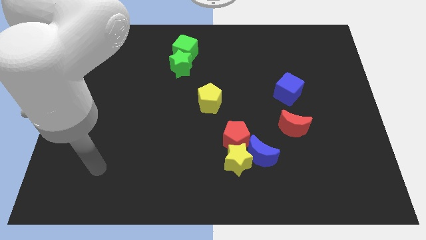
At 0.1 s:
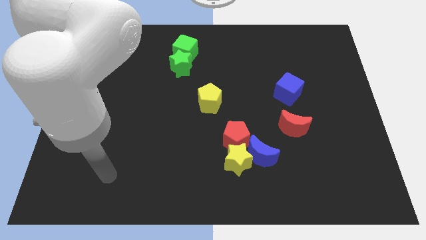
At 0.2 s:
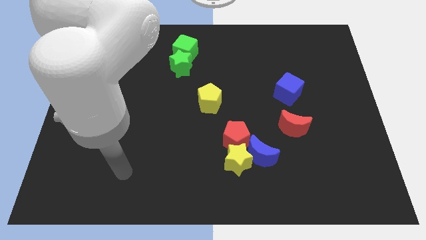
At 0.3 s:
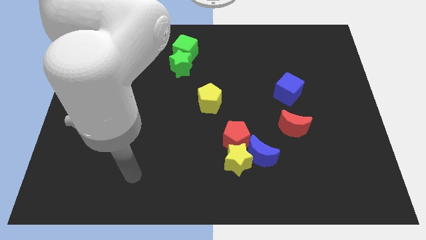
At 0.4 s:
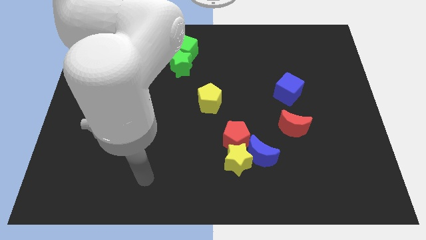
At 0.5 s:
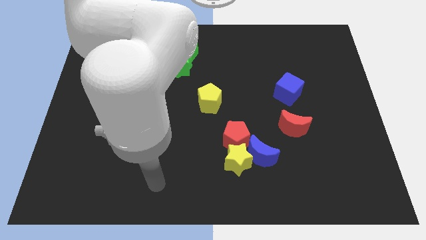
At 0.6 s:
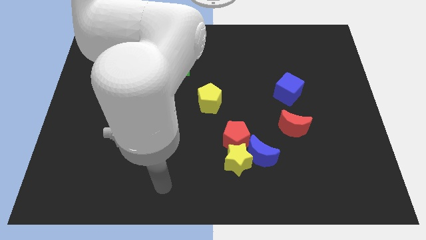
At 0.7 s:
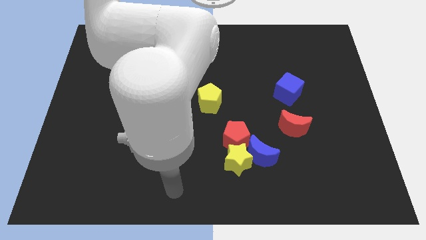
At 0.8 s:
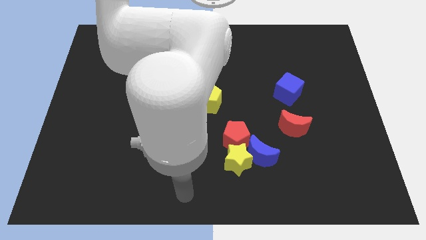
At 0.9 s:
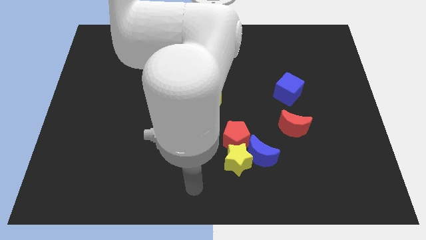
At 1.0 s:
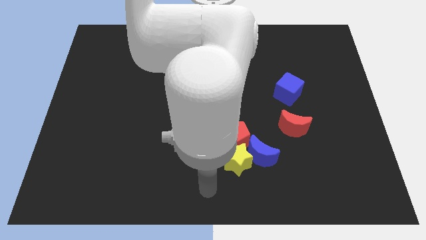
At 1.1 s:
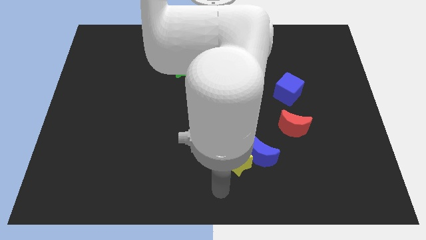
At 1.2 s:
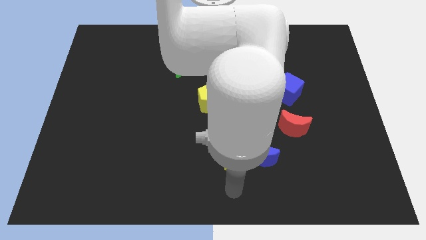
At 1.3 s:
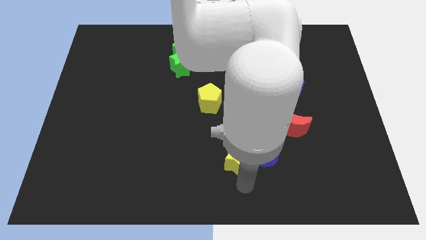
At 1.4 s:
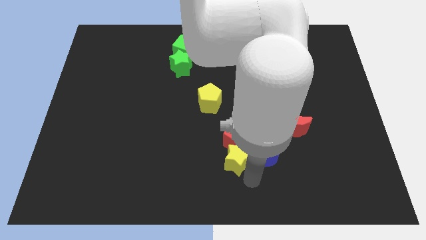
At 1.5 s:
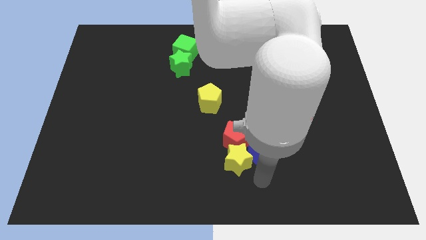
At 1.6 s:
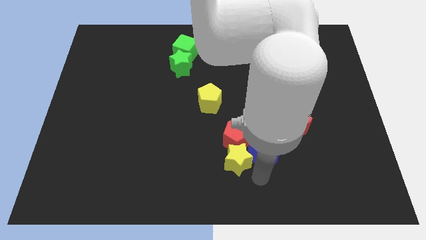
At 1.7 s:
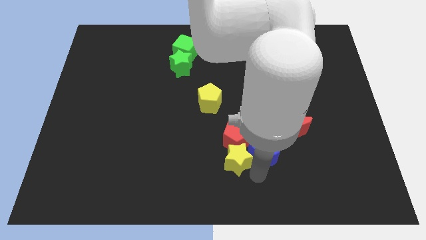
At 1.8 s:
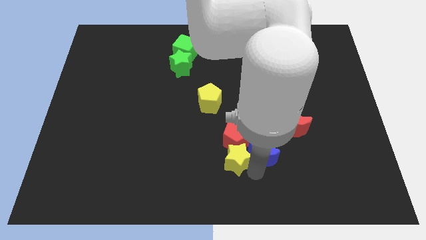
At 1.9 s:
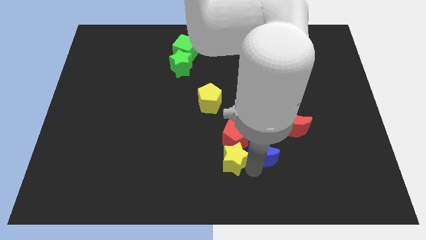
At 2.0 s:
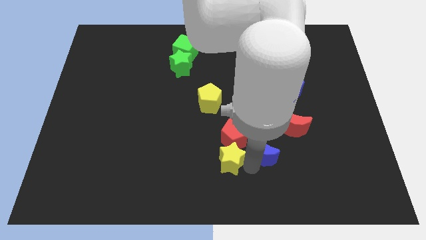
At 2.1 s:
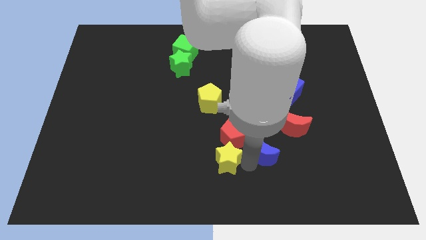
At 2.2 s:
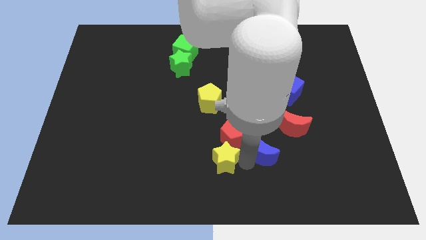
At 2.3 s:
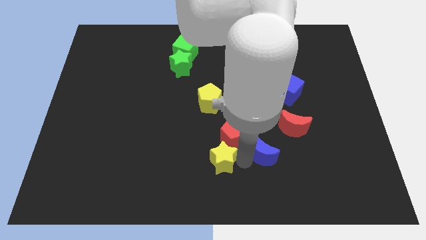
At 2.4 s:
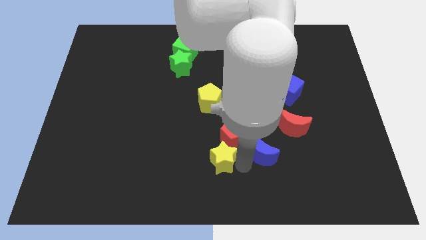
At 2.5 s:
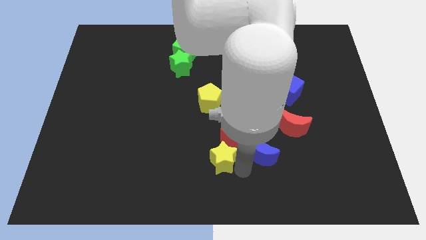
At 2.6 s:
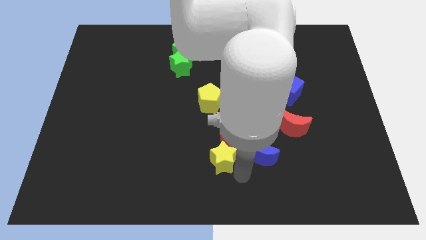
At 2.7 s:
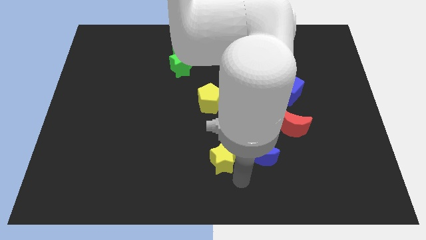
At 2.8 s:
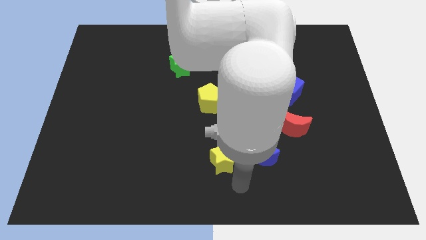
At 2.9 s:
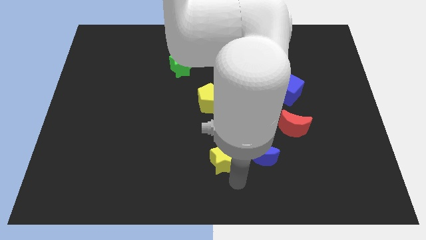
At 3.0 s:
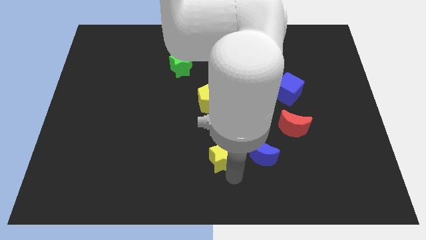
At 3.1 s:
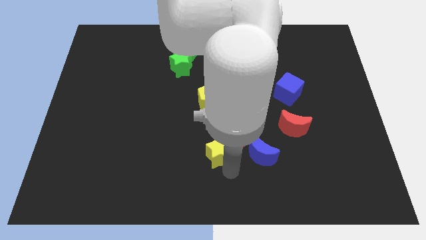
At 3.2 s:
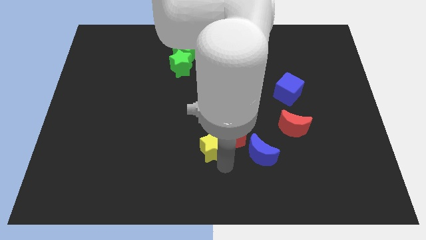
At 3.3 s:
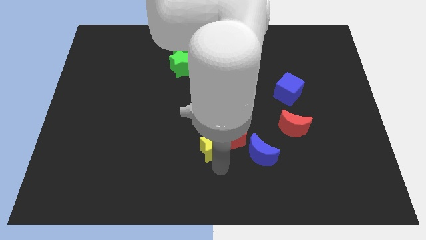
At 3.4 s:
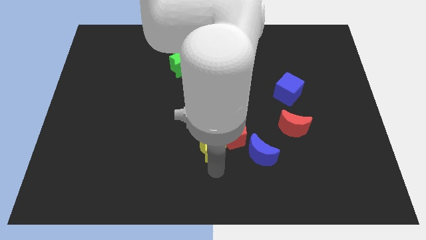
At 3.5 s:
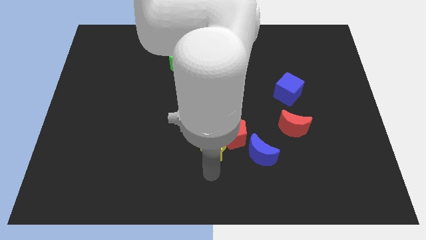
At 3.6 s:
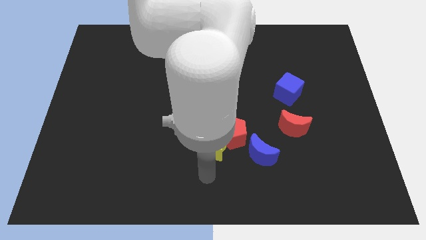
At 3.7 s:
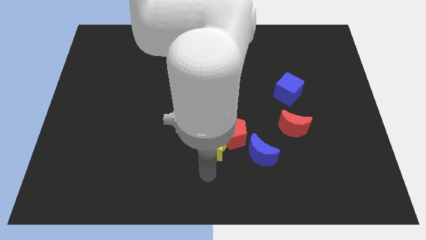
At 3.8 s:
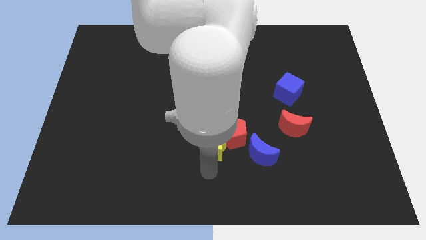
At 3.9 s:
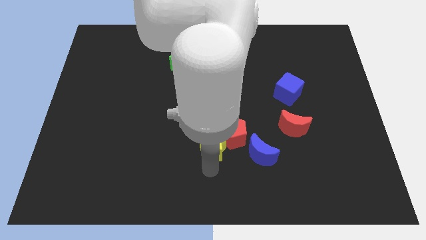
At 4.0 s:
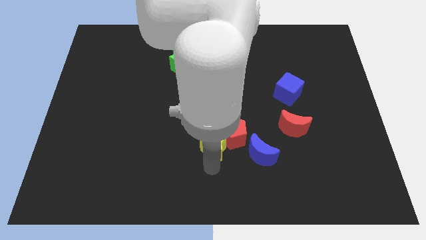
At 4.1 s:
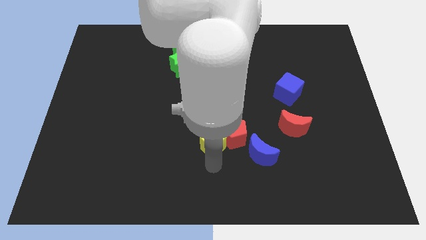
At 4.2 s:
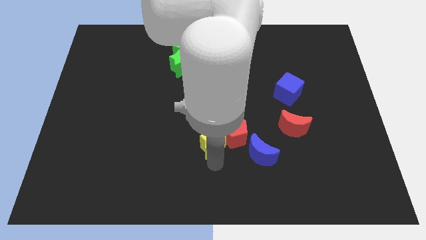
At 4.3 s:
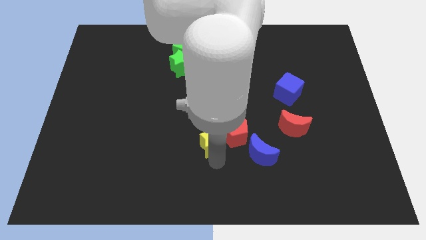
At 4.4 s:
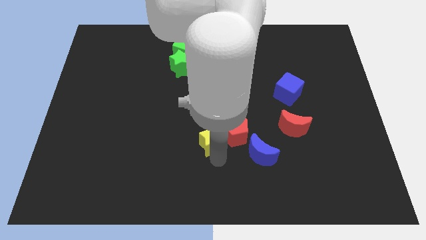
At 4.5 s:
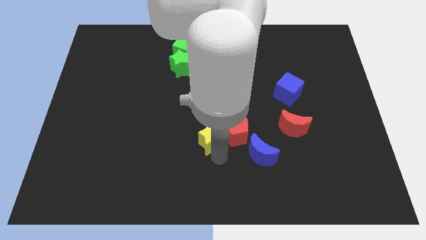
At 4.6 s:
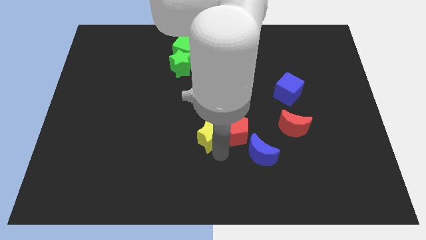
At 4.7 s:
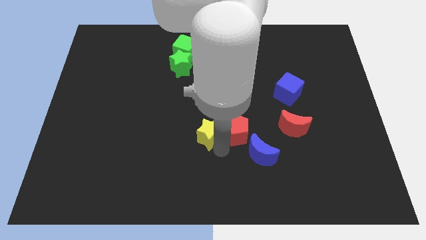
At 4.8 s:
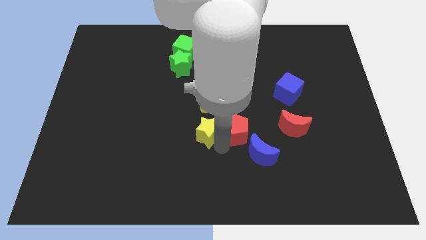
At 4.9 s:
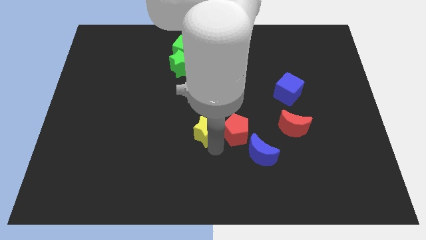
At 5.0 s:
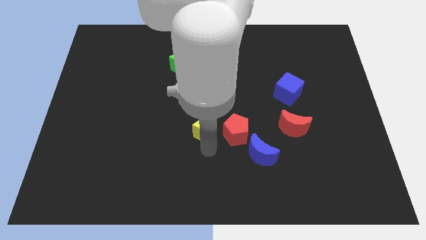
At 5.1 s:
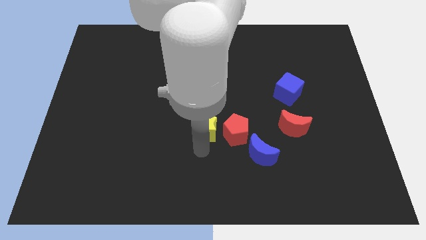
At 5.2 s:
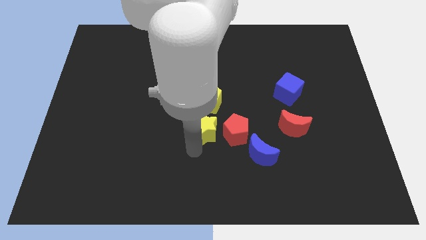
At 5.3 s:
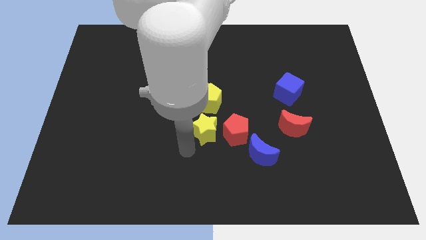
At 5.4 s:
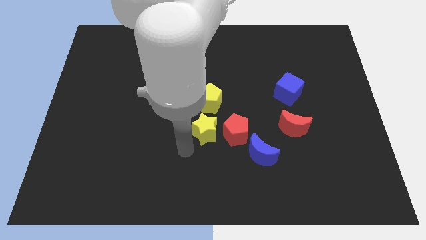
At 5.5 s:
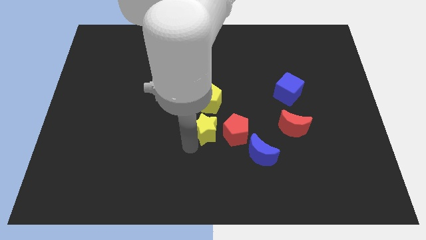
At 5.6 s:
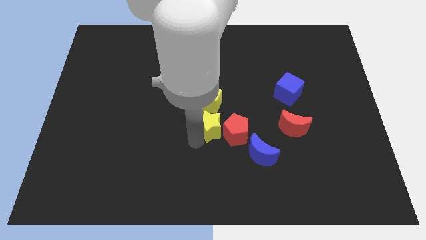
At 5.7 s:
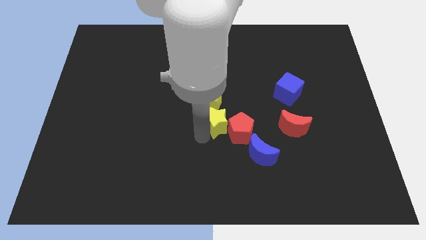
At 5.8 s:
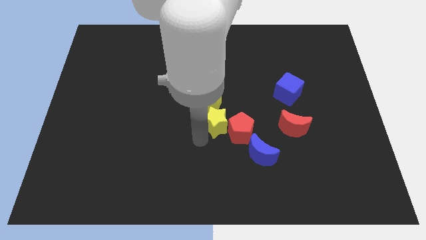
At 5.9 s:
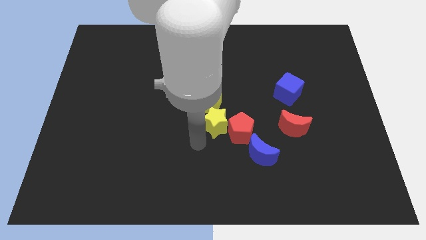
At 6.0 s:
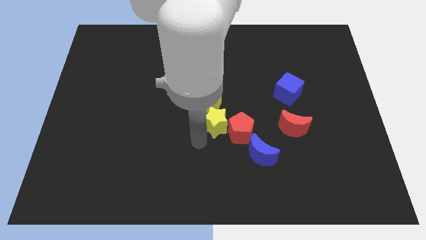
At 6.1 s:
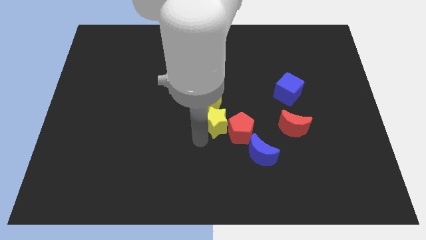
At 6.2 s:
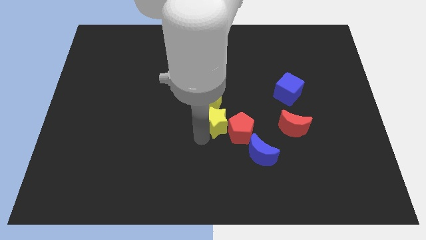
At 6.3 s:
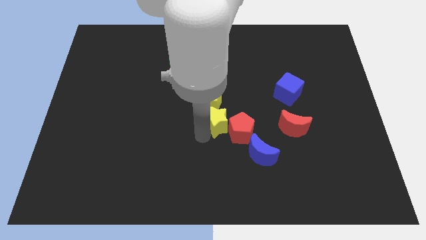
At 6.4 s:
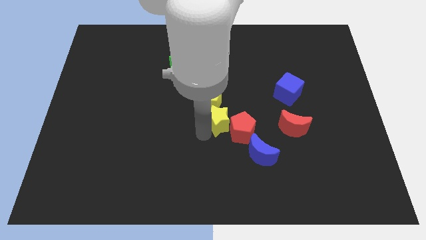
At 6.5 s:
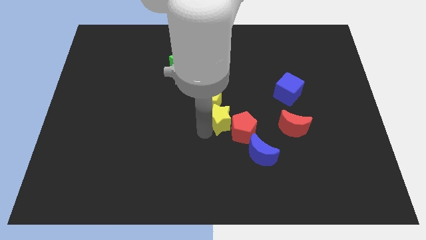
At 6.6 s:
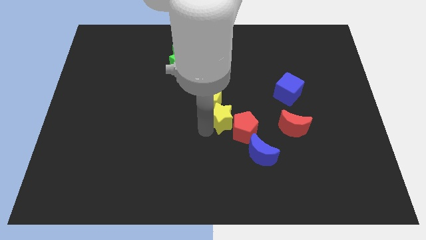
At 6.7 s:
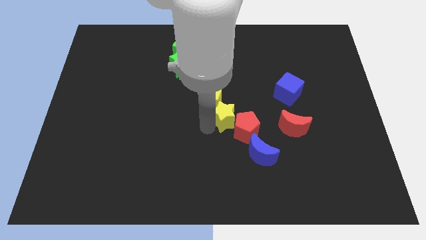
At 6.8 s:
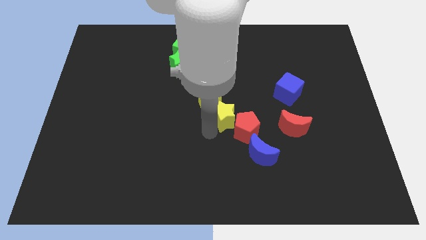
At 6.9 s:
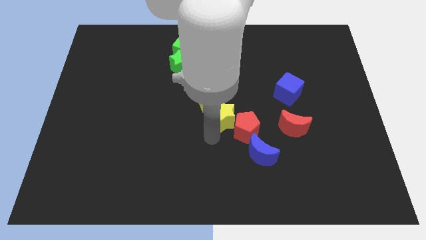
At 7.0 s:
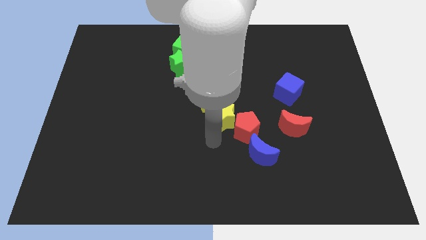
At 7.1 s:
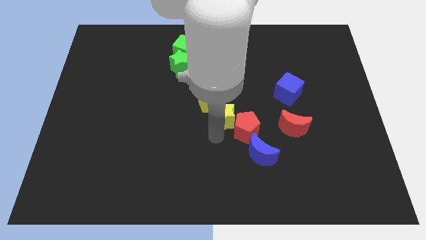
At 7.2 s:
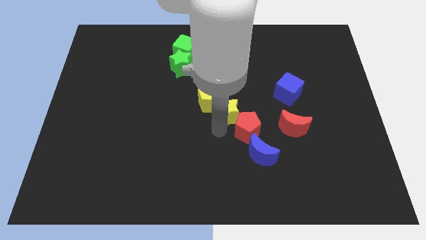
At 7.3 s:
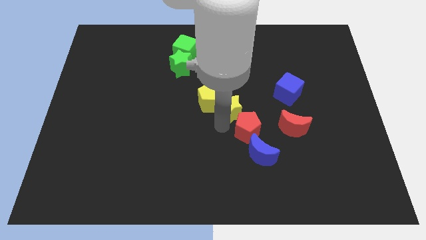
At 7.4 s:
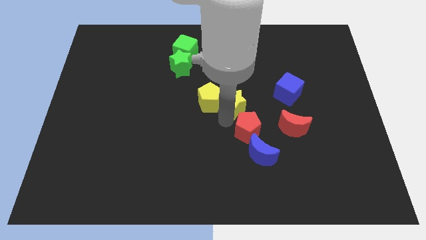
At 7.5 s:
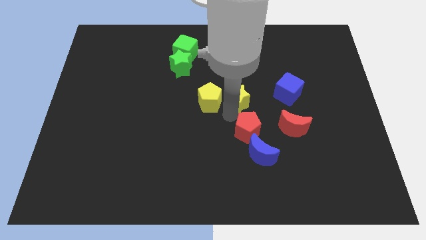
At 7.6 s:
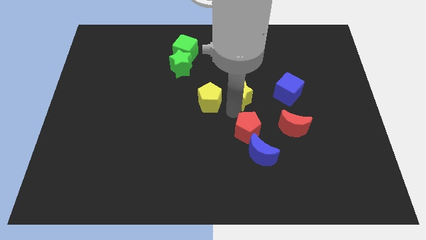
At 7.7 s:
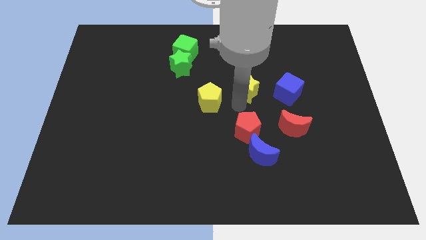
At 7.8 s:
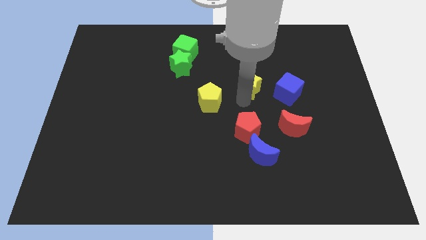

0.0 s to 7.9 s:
move the yellow star up
